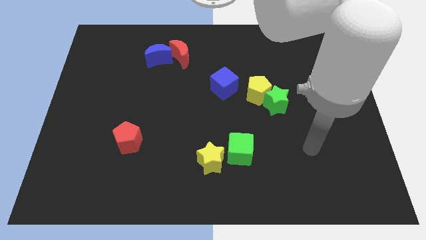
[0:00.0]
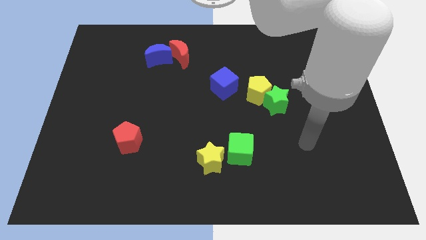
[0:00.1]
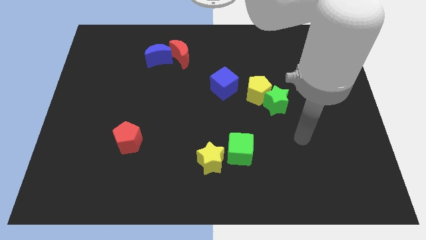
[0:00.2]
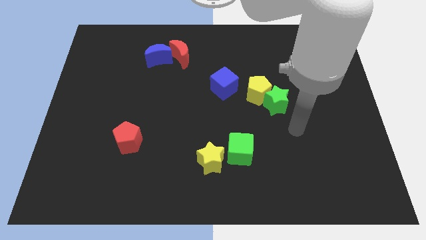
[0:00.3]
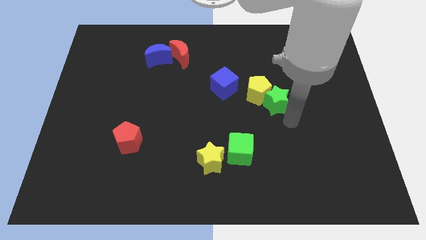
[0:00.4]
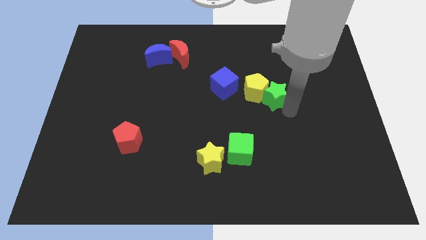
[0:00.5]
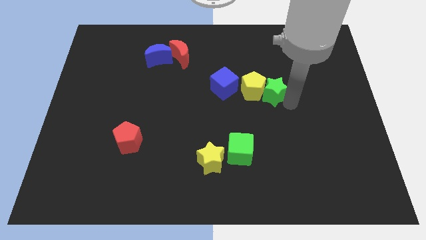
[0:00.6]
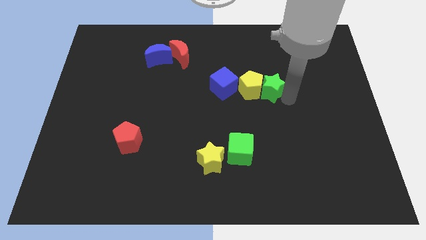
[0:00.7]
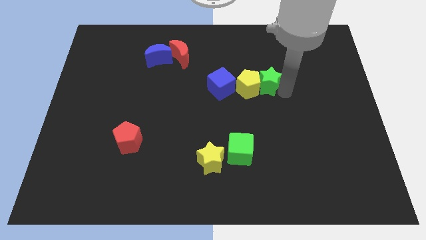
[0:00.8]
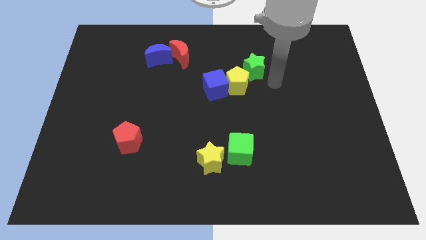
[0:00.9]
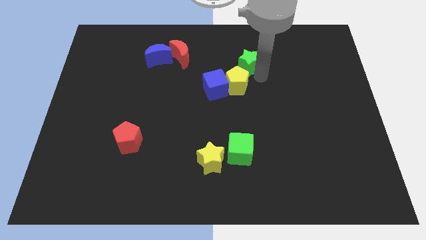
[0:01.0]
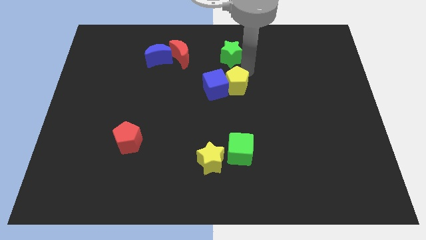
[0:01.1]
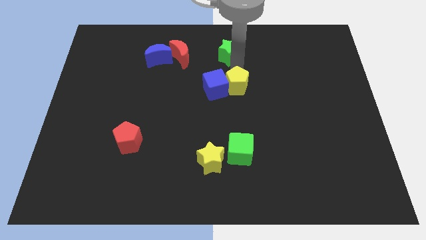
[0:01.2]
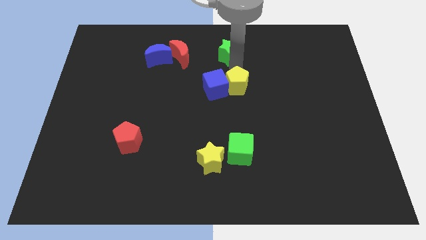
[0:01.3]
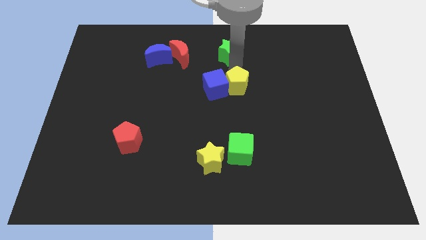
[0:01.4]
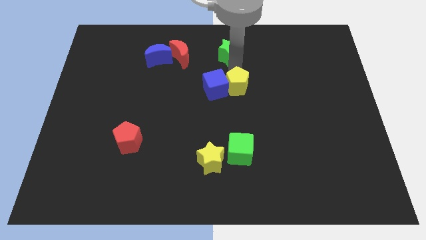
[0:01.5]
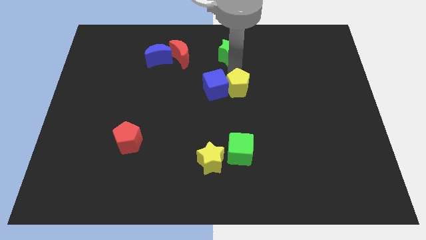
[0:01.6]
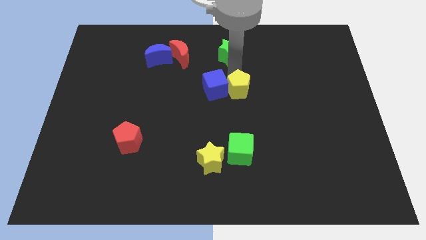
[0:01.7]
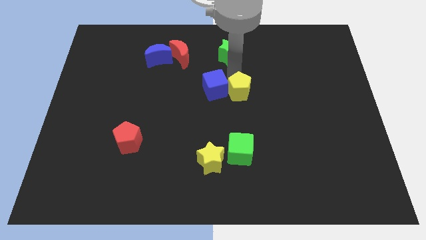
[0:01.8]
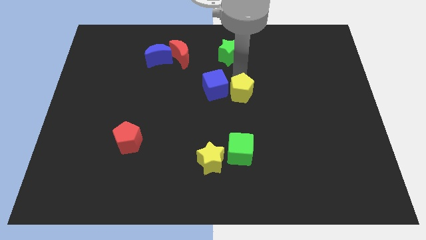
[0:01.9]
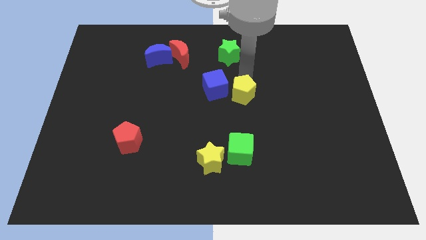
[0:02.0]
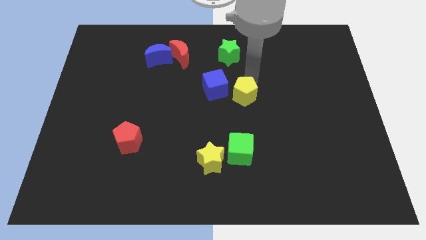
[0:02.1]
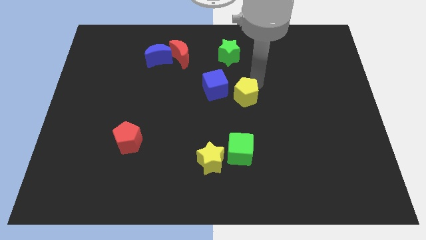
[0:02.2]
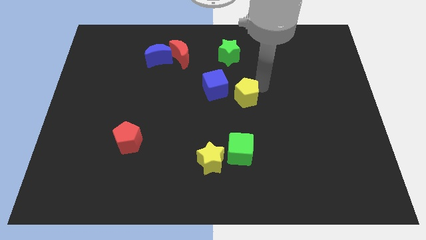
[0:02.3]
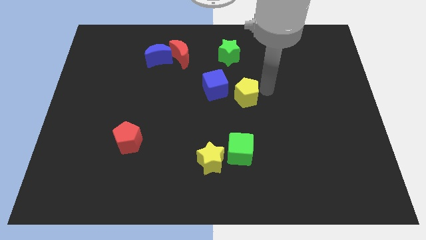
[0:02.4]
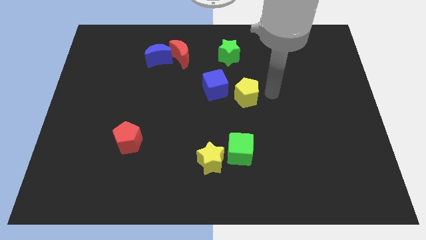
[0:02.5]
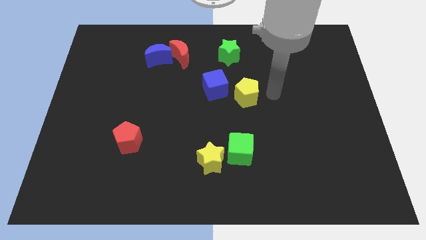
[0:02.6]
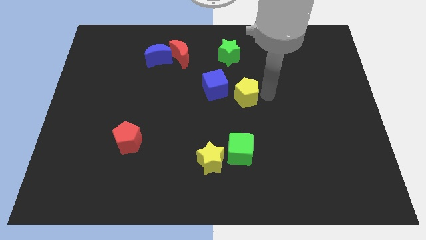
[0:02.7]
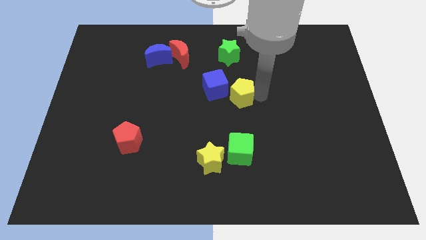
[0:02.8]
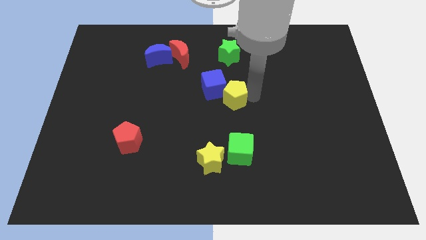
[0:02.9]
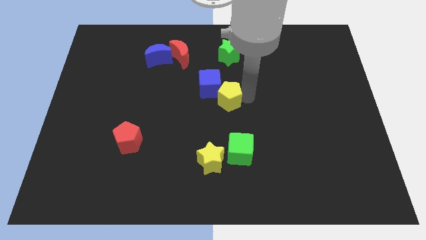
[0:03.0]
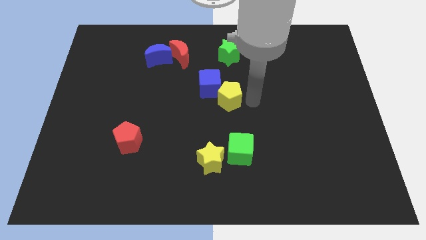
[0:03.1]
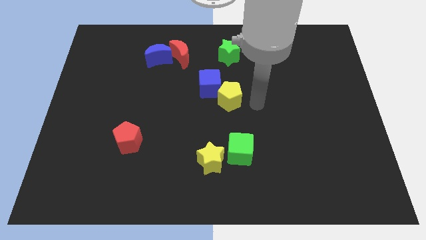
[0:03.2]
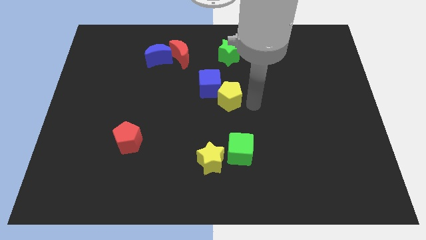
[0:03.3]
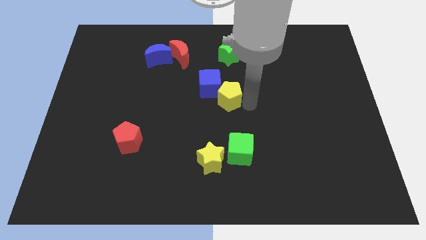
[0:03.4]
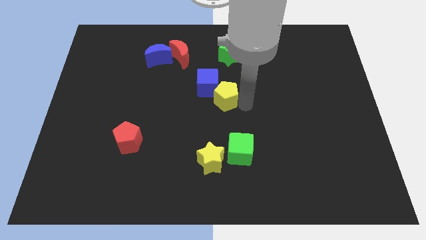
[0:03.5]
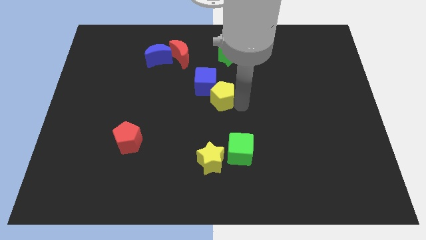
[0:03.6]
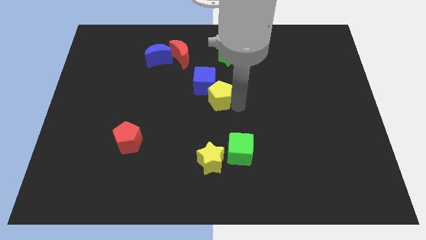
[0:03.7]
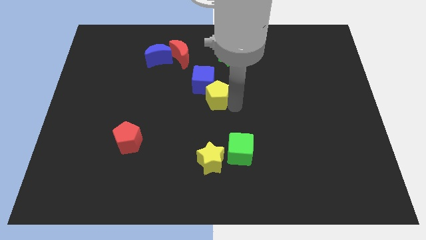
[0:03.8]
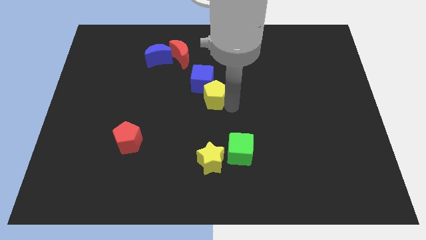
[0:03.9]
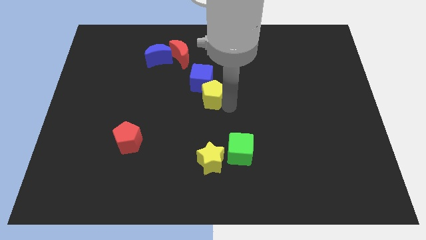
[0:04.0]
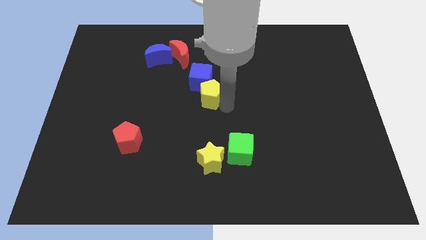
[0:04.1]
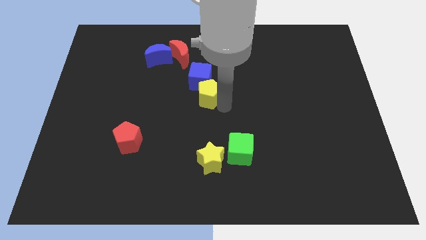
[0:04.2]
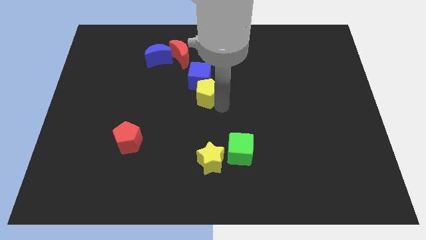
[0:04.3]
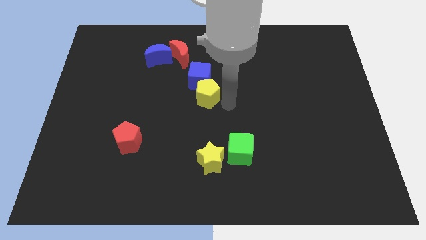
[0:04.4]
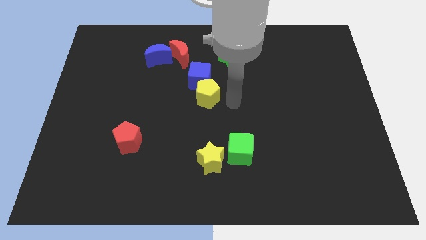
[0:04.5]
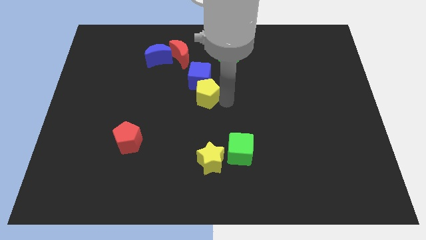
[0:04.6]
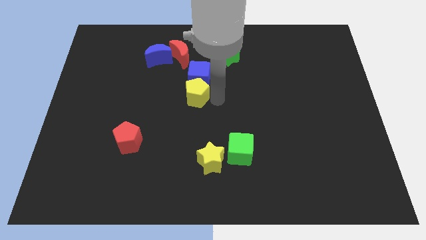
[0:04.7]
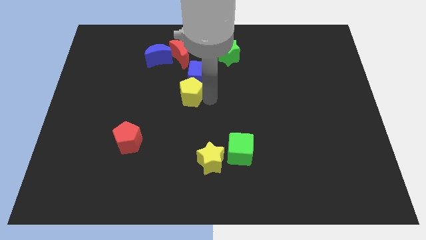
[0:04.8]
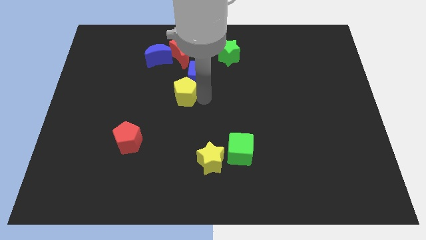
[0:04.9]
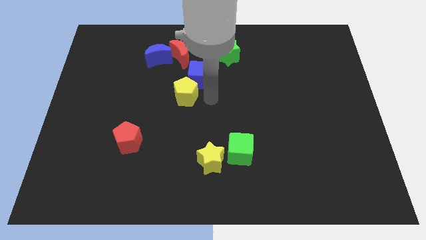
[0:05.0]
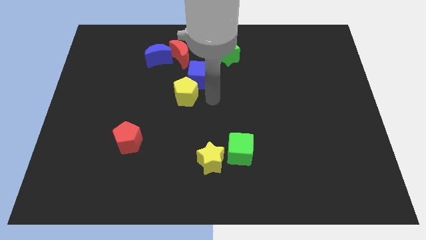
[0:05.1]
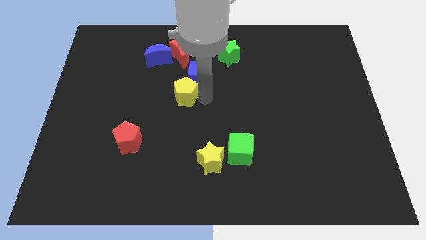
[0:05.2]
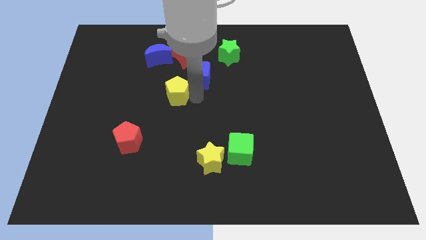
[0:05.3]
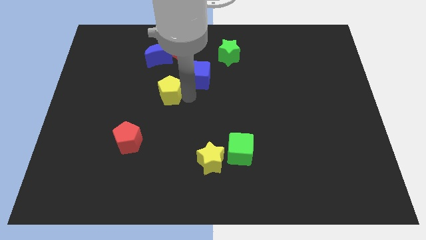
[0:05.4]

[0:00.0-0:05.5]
move the yellow pentagon to the left

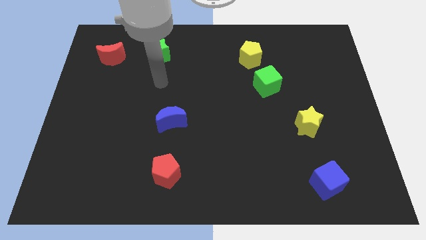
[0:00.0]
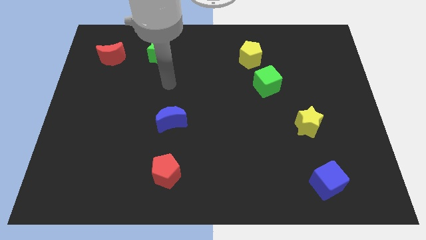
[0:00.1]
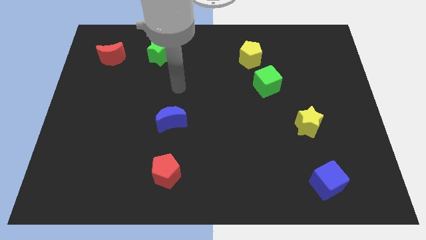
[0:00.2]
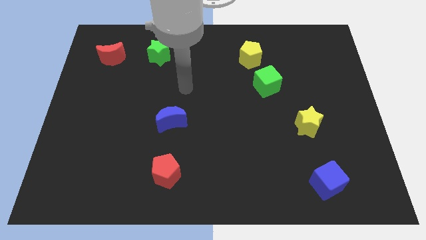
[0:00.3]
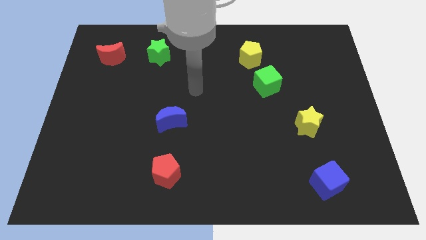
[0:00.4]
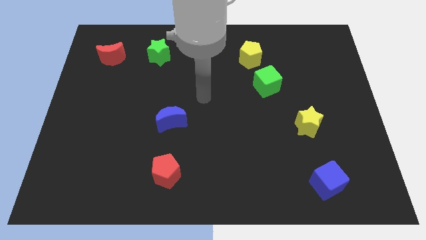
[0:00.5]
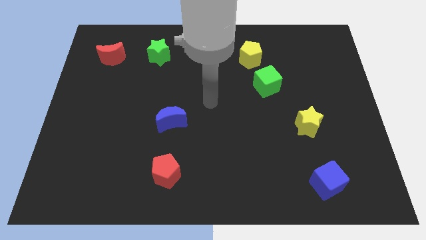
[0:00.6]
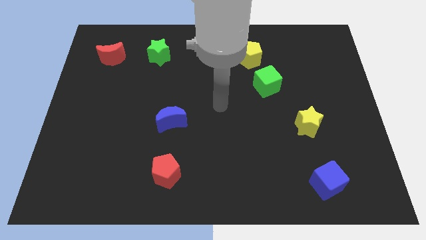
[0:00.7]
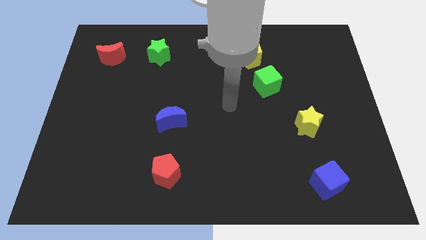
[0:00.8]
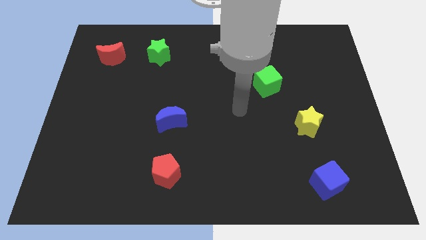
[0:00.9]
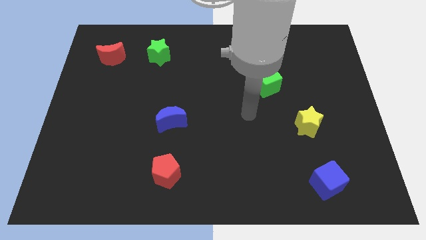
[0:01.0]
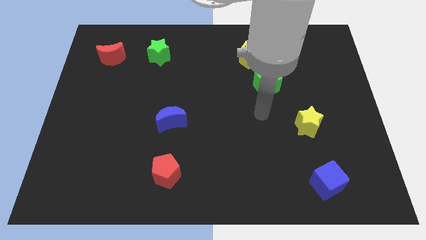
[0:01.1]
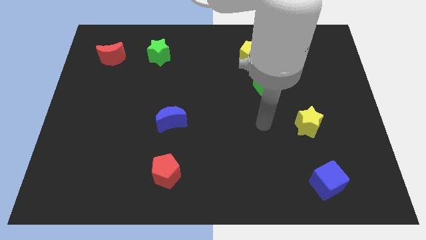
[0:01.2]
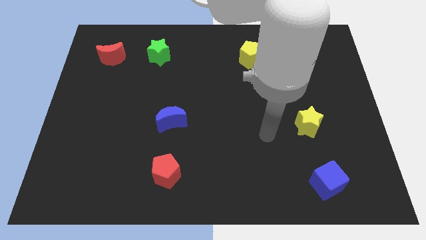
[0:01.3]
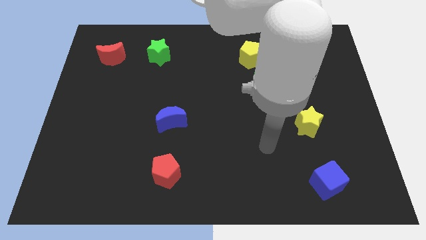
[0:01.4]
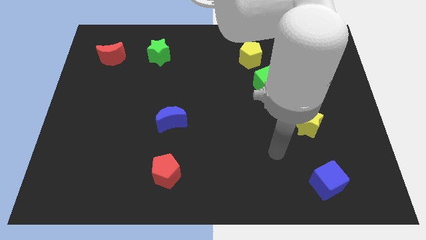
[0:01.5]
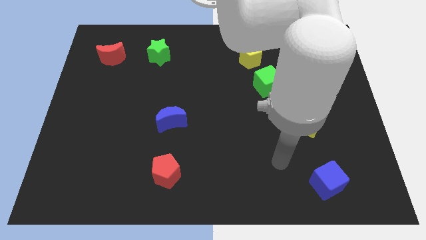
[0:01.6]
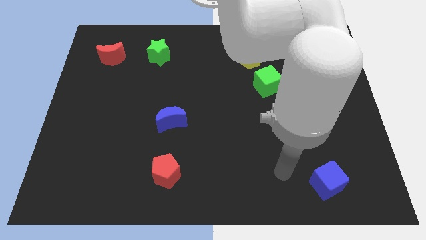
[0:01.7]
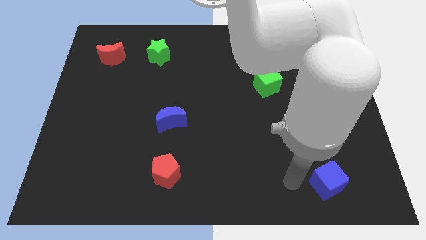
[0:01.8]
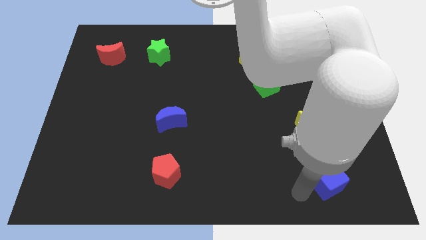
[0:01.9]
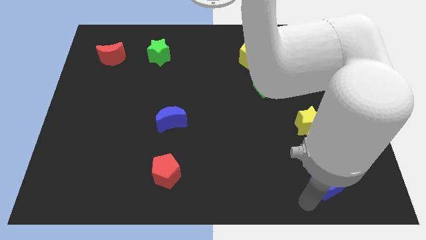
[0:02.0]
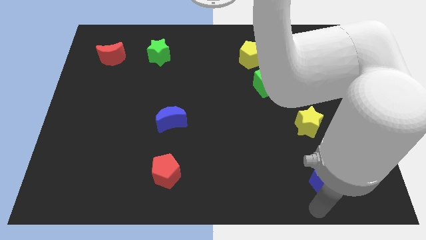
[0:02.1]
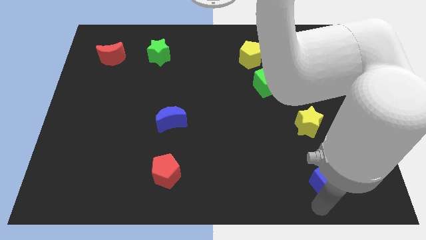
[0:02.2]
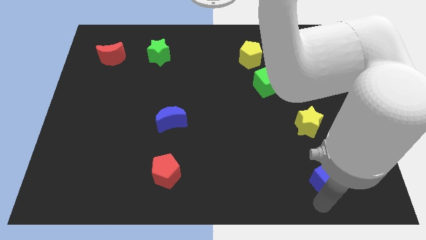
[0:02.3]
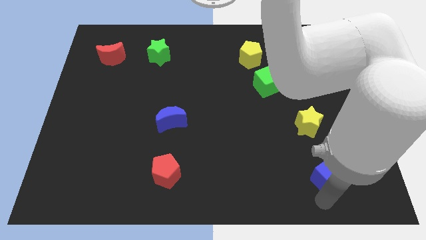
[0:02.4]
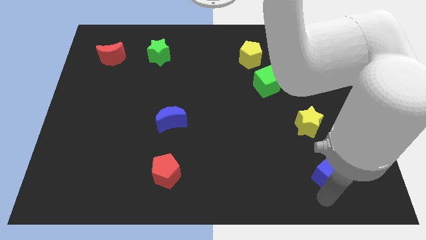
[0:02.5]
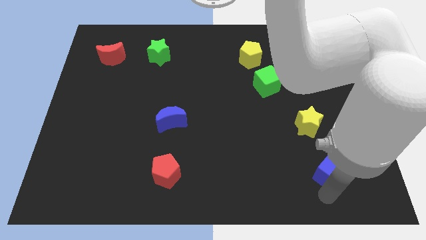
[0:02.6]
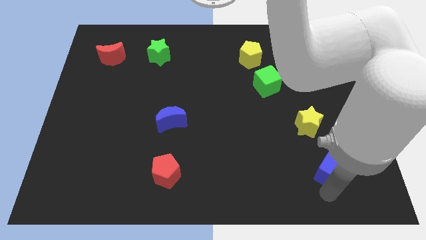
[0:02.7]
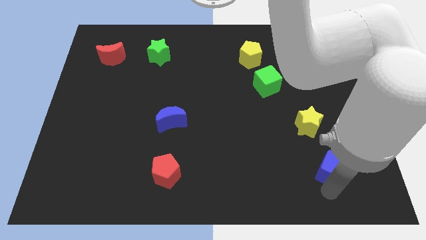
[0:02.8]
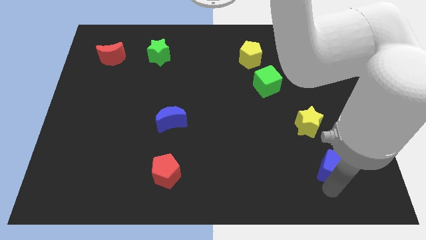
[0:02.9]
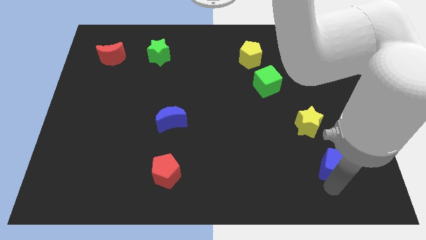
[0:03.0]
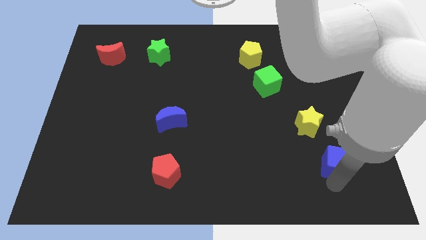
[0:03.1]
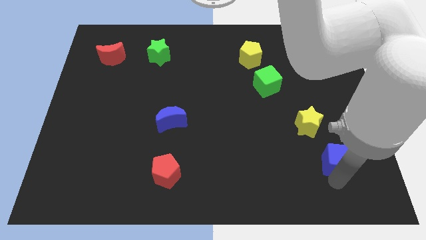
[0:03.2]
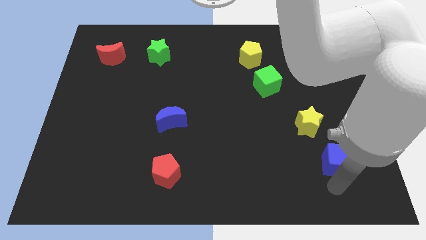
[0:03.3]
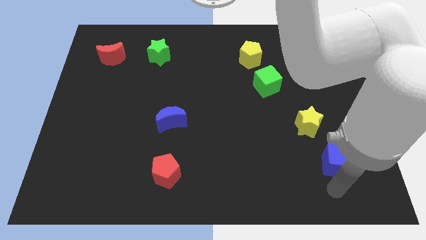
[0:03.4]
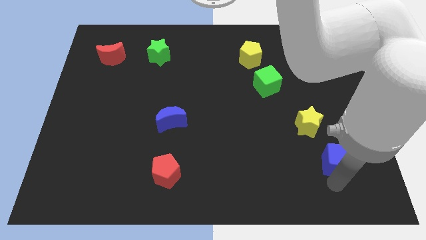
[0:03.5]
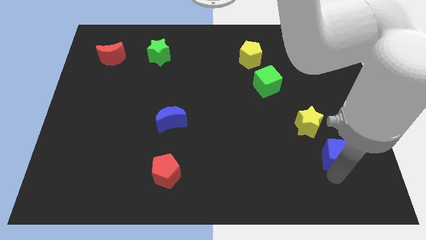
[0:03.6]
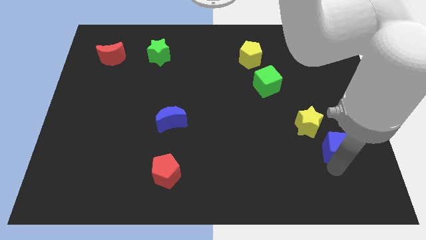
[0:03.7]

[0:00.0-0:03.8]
slide the blue cube a bit up
